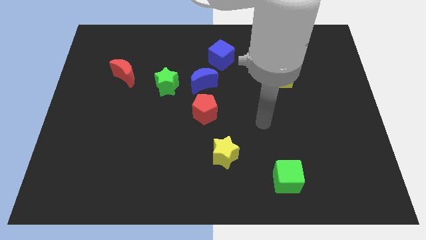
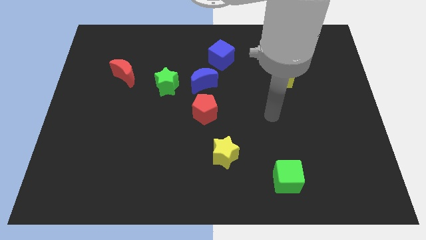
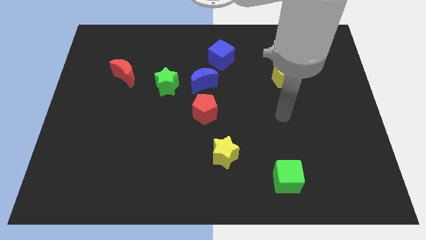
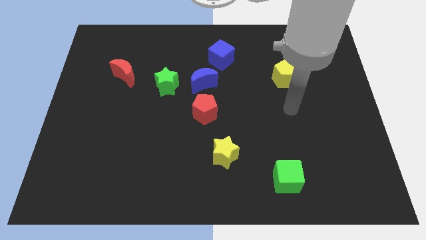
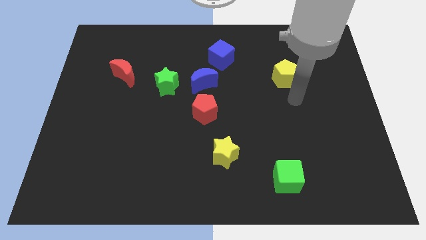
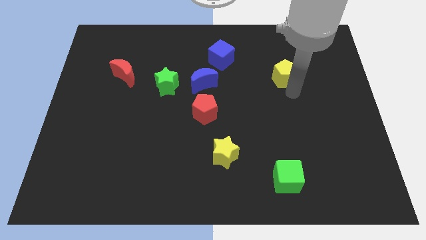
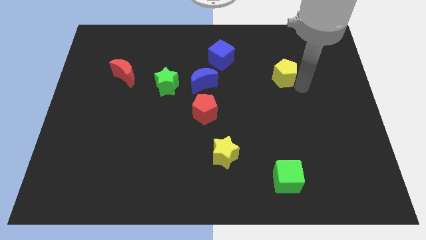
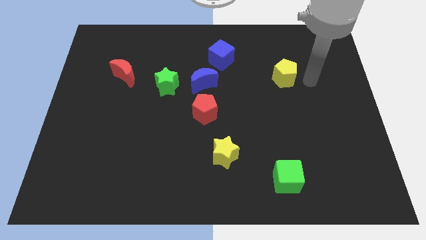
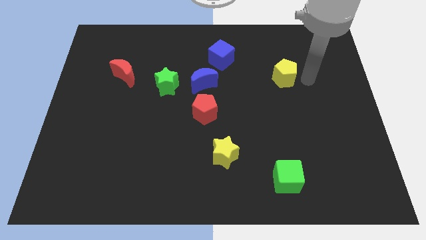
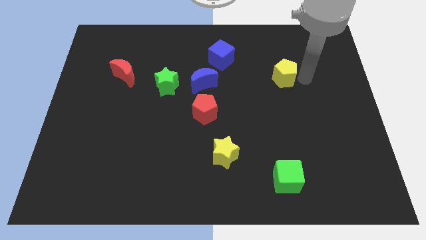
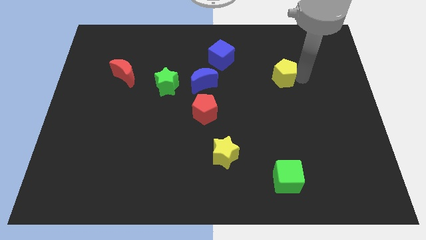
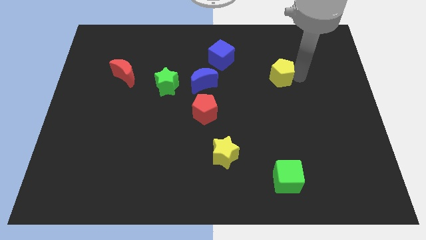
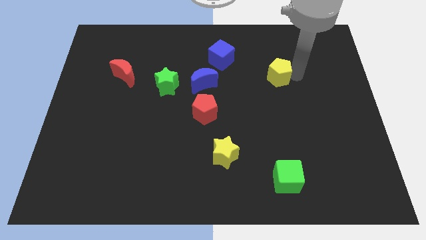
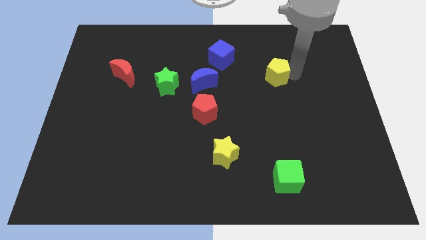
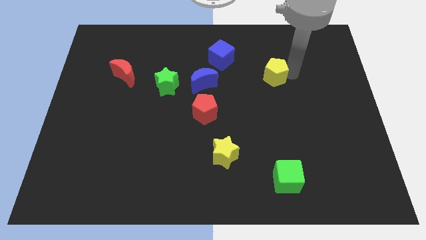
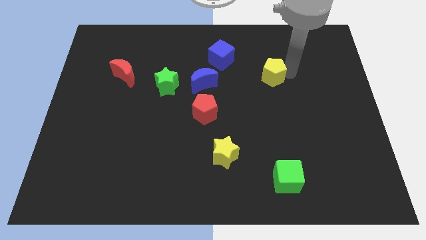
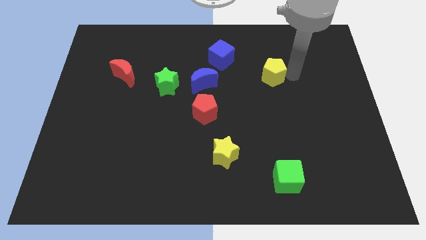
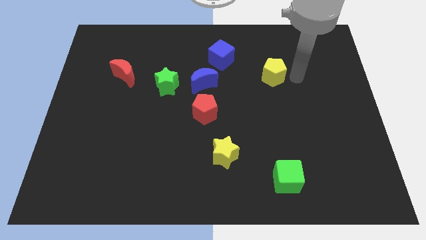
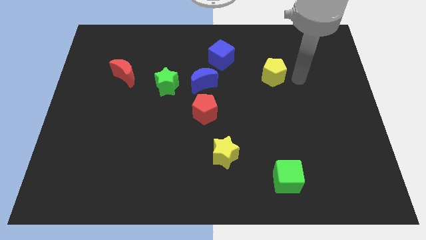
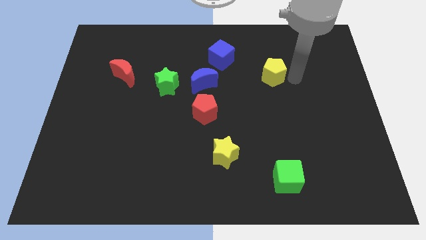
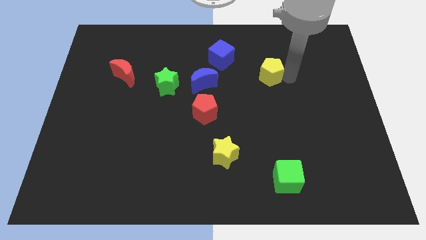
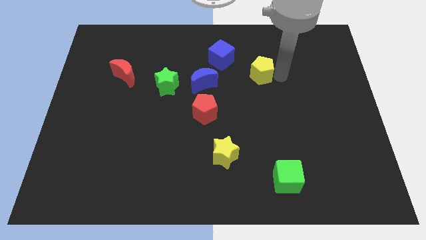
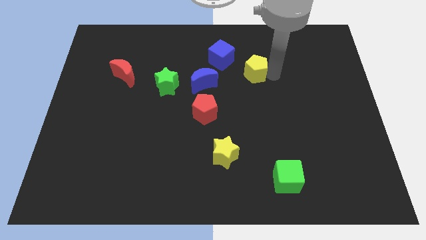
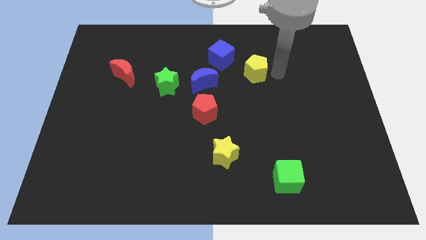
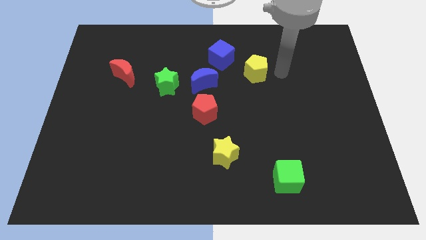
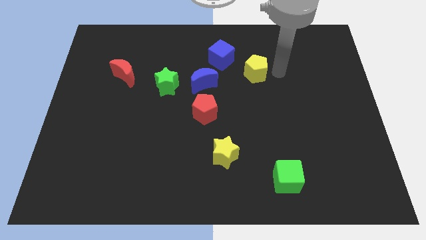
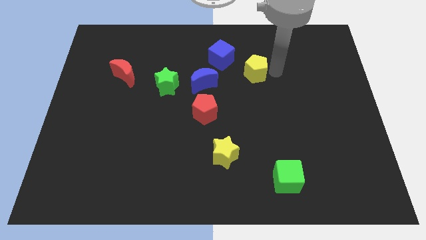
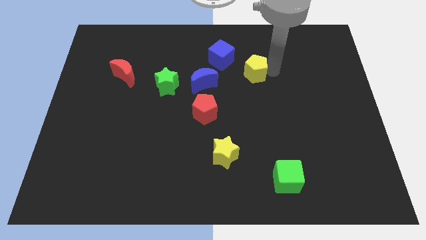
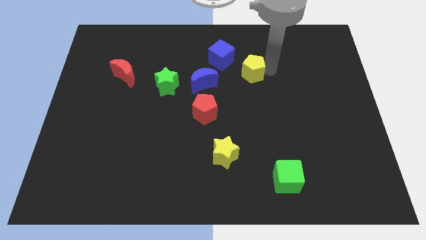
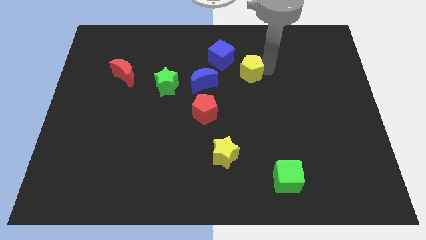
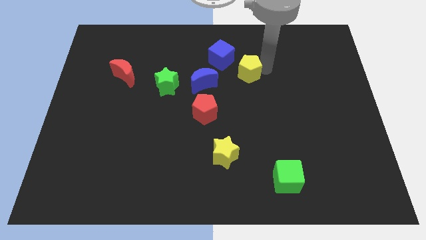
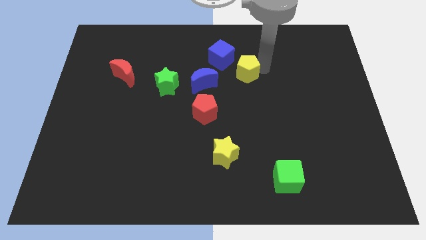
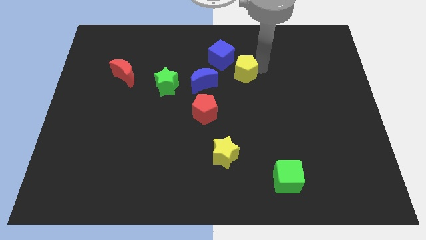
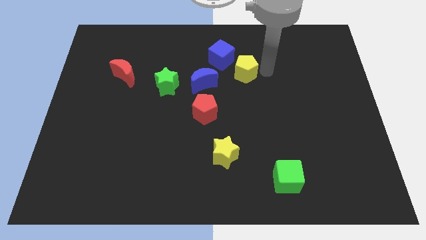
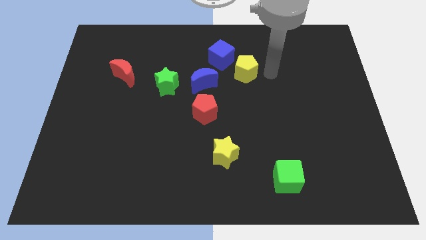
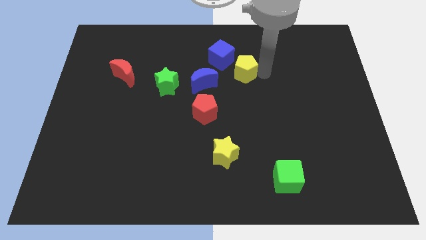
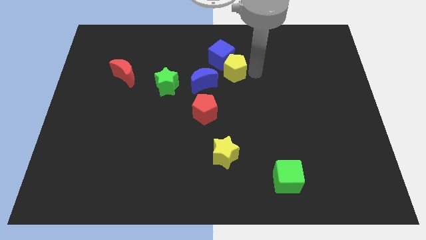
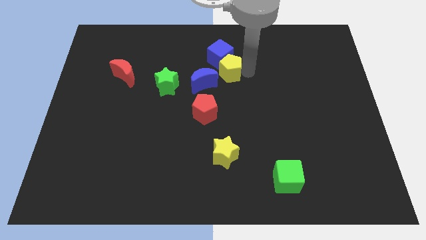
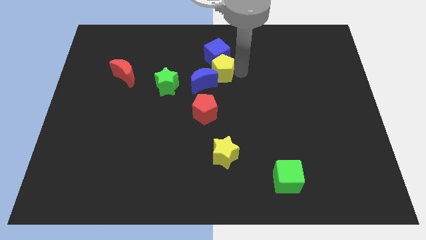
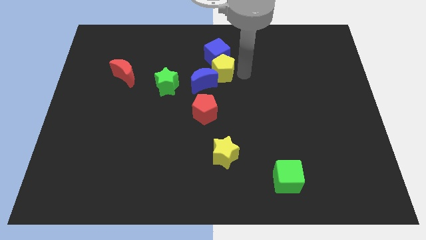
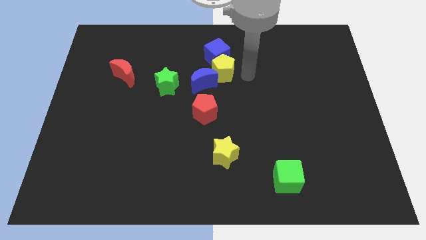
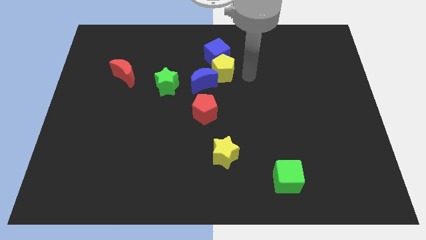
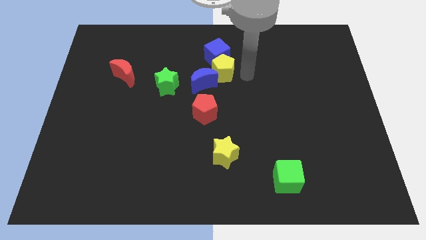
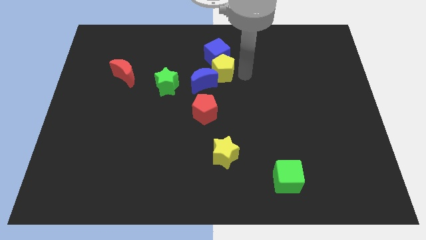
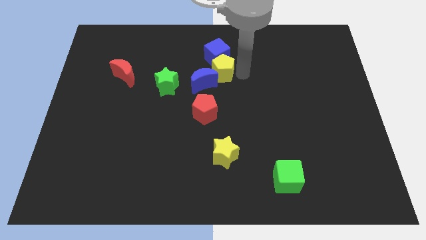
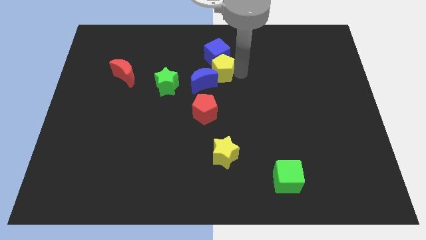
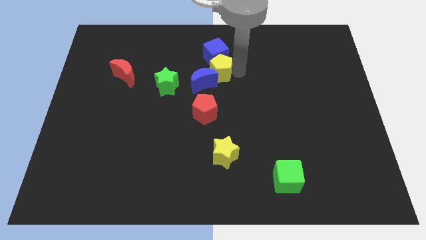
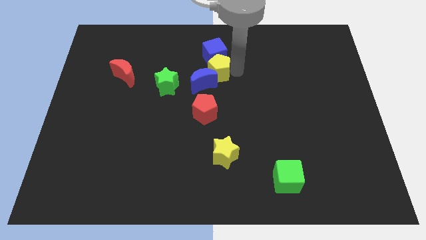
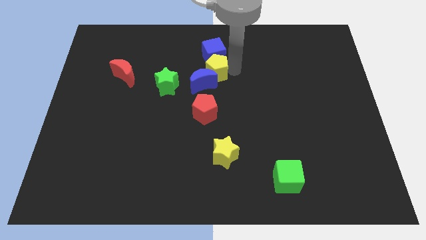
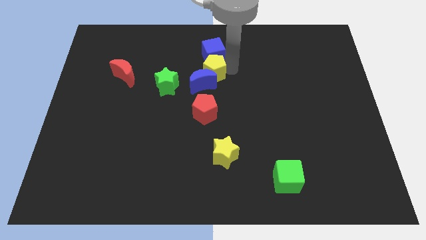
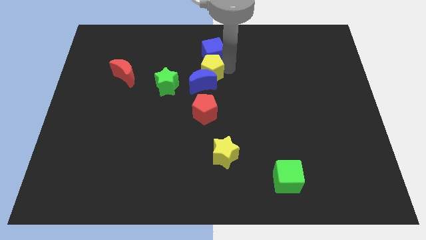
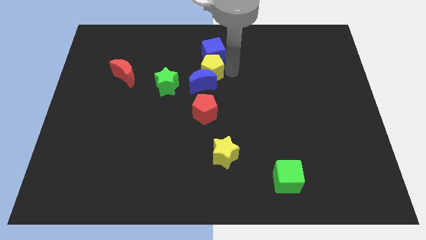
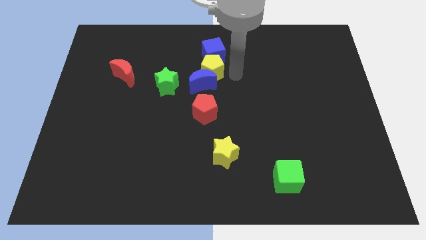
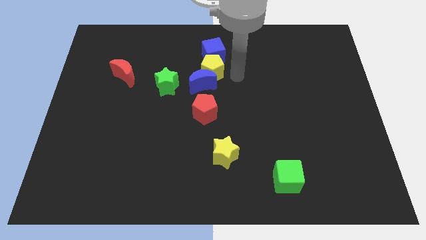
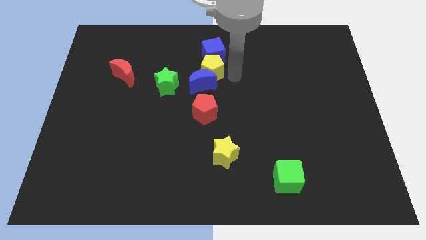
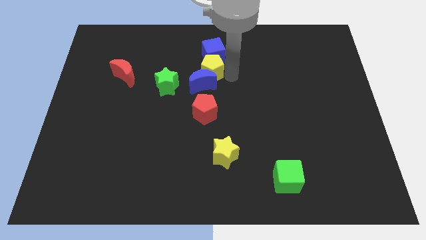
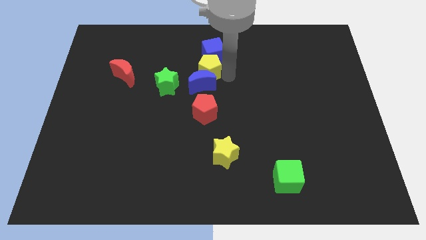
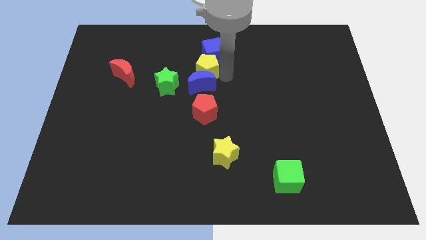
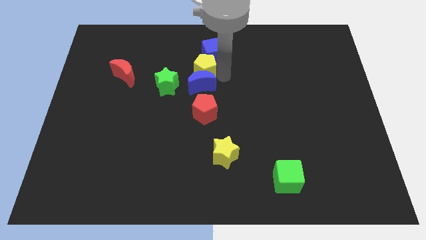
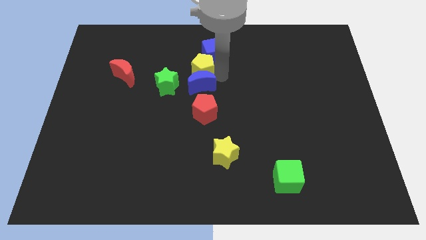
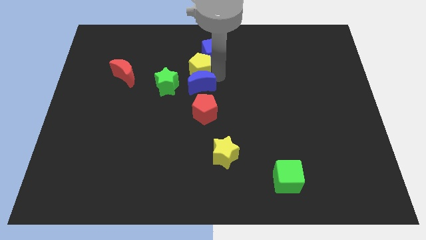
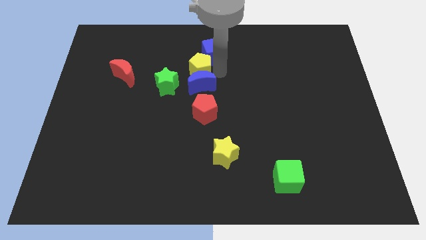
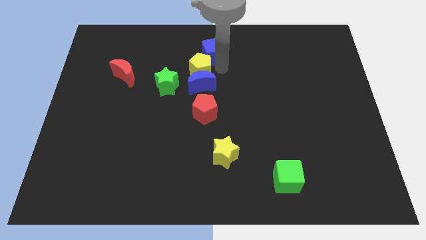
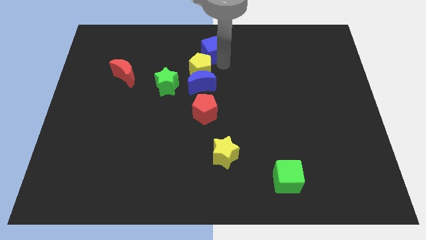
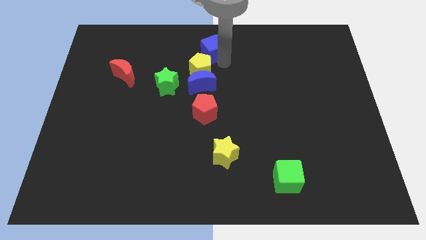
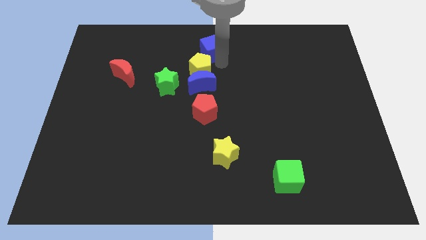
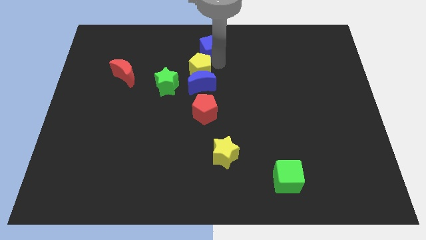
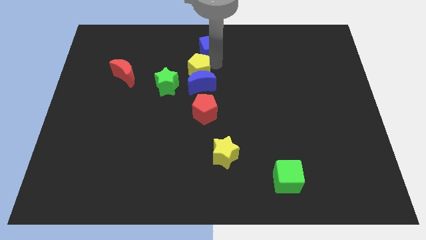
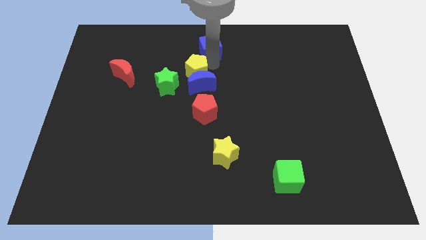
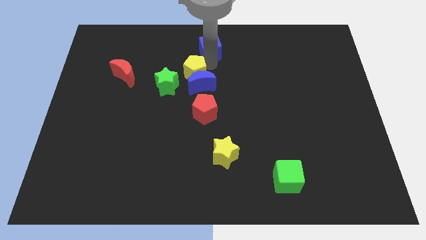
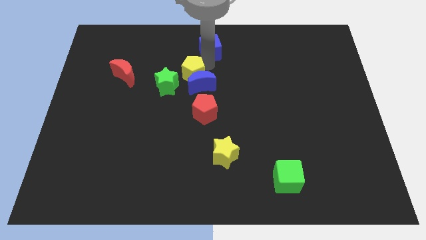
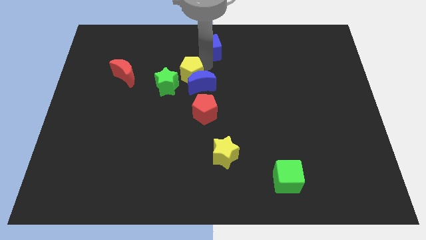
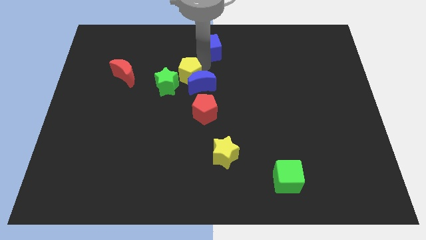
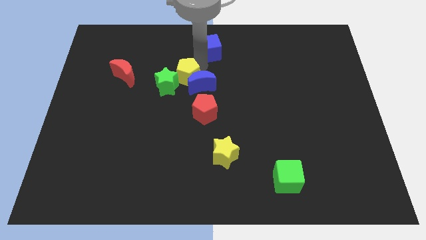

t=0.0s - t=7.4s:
move the yellow pentagon next to the green star

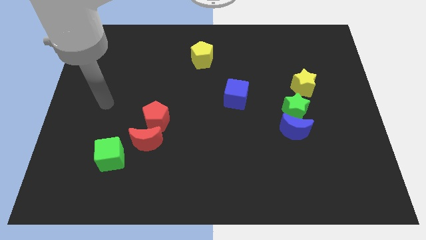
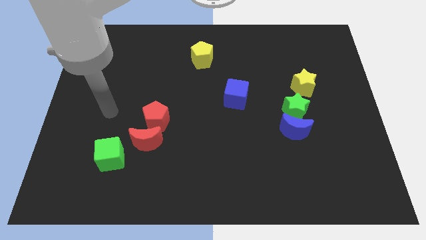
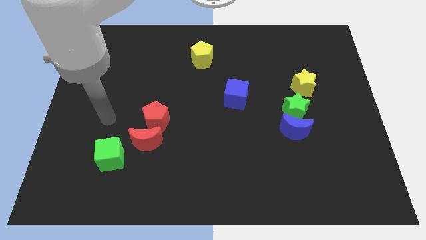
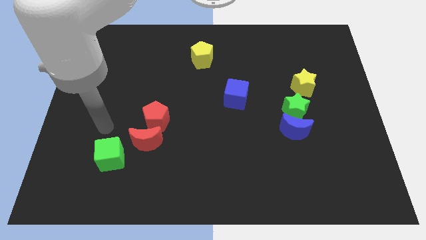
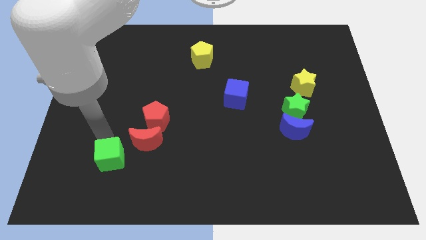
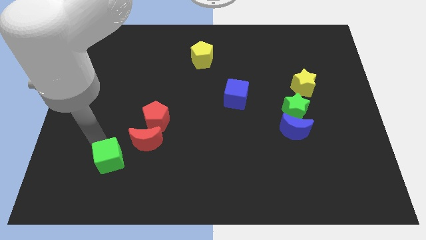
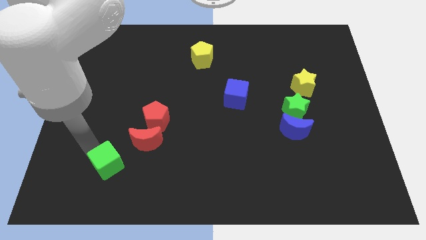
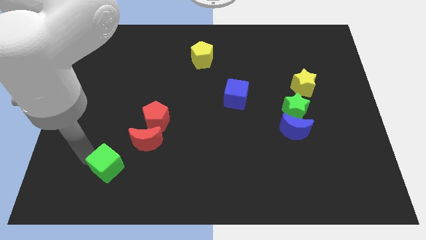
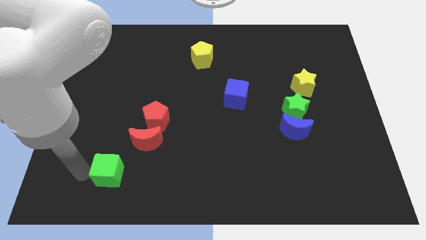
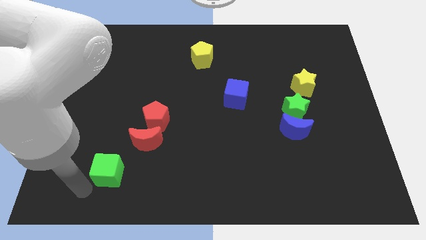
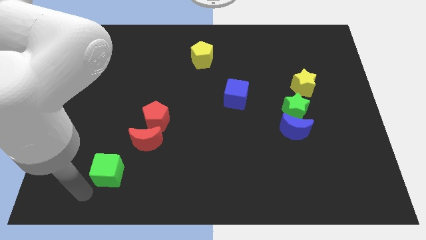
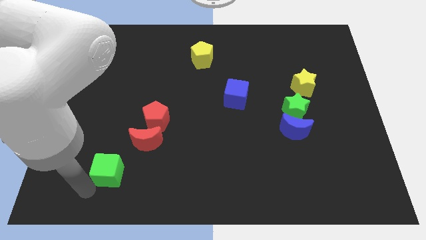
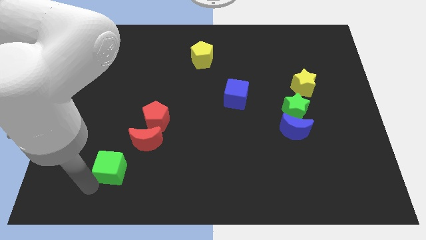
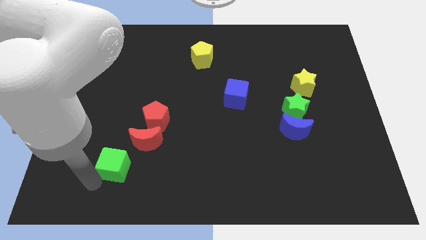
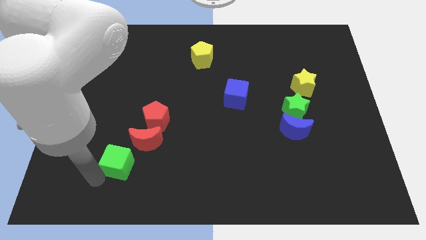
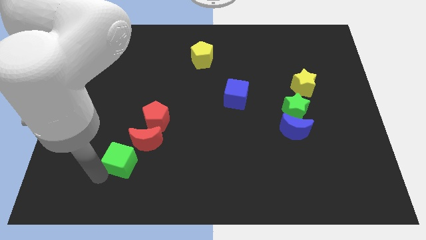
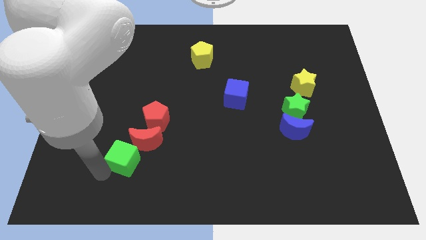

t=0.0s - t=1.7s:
push the green cube towards the red moon
